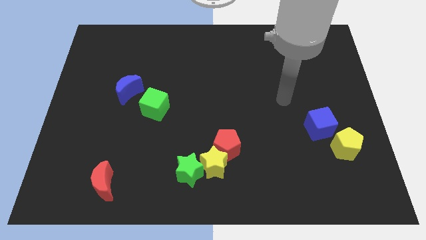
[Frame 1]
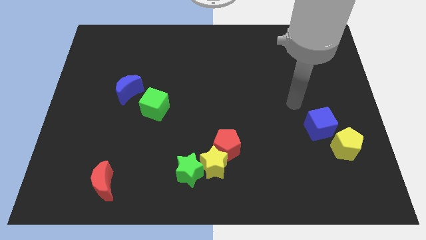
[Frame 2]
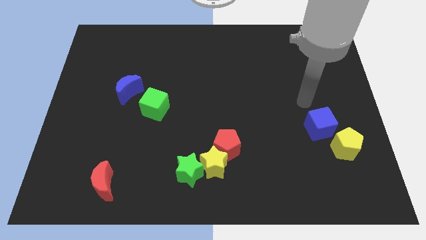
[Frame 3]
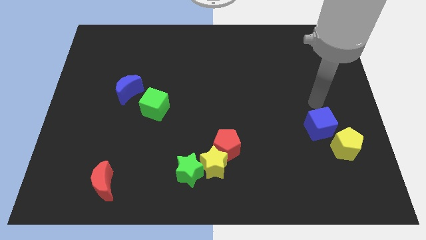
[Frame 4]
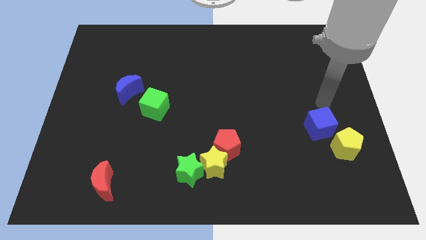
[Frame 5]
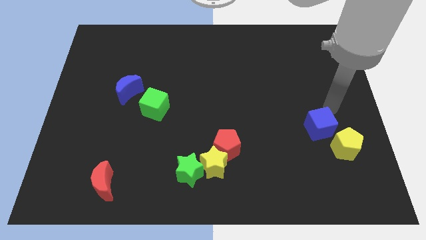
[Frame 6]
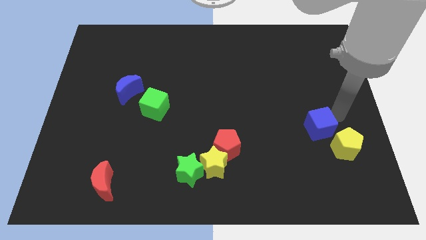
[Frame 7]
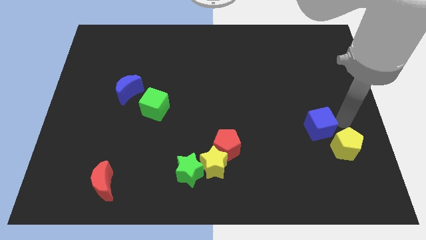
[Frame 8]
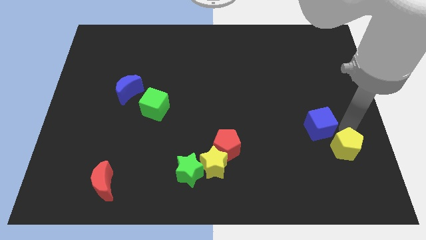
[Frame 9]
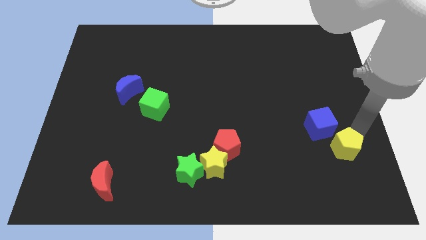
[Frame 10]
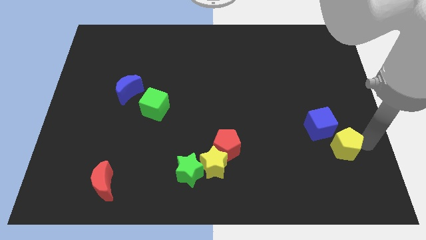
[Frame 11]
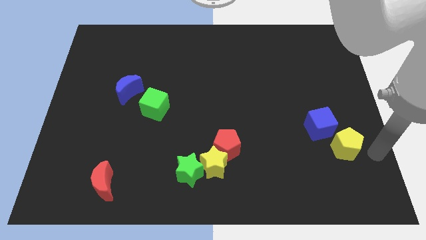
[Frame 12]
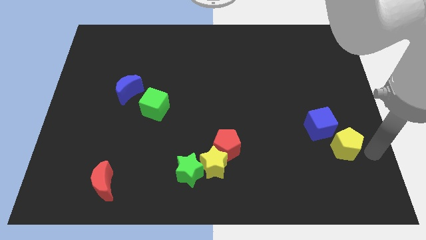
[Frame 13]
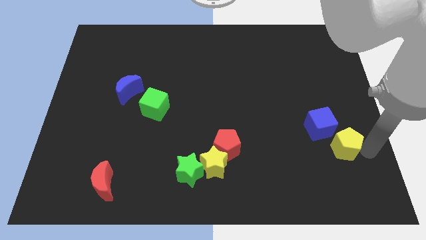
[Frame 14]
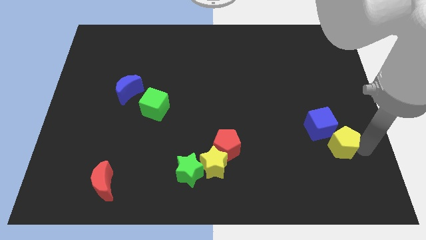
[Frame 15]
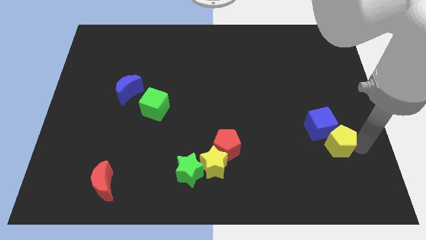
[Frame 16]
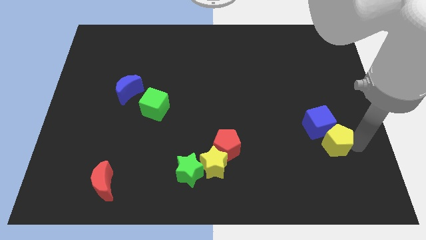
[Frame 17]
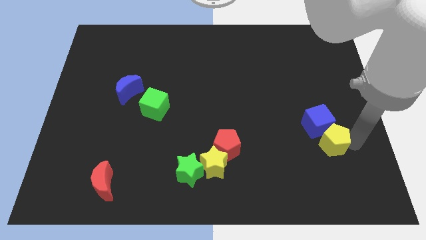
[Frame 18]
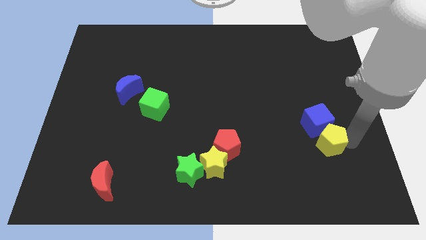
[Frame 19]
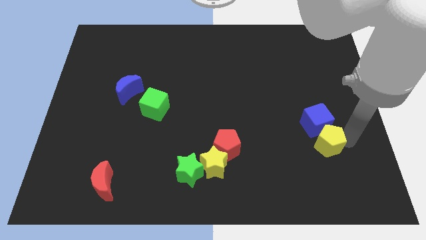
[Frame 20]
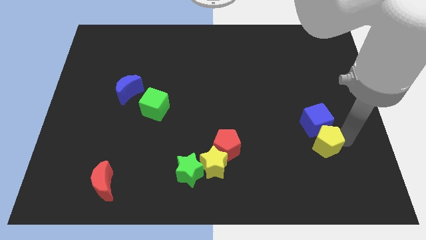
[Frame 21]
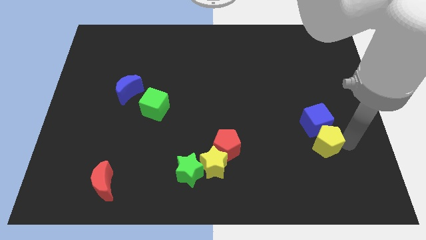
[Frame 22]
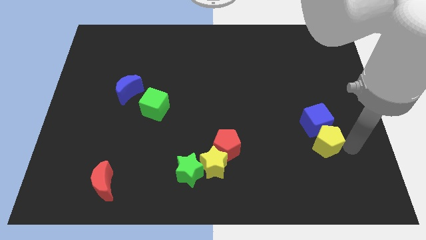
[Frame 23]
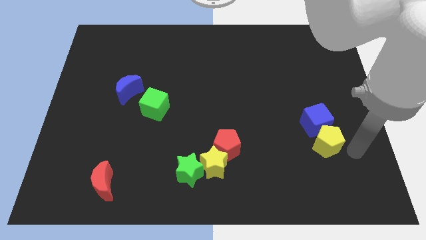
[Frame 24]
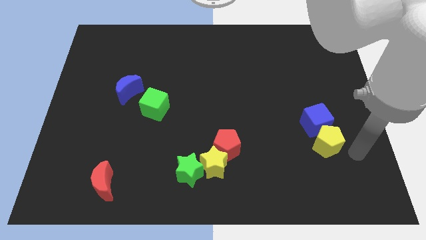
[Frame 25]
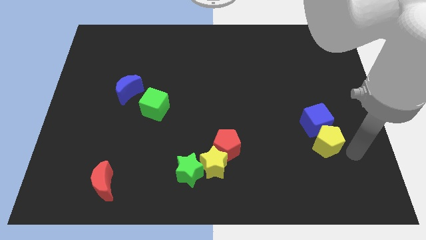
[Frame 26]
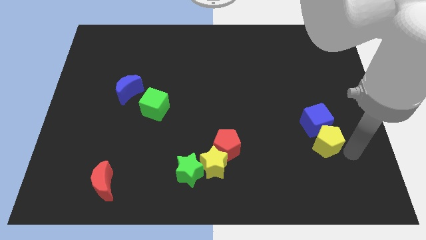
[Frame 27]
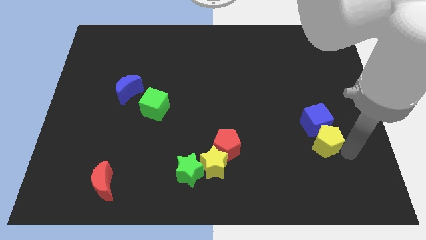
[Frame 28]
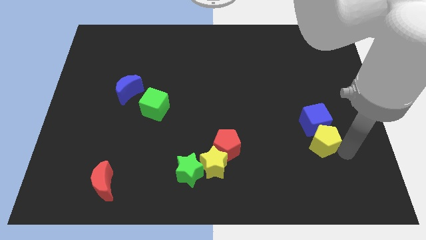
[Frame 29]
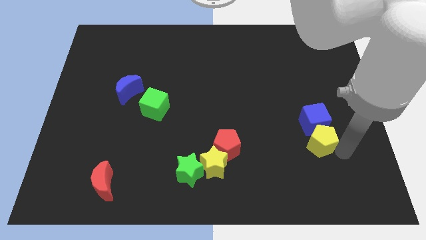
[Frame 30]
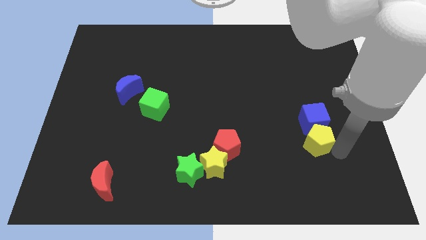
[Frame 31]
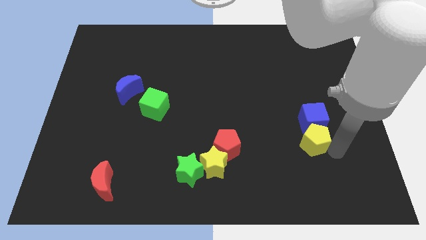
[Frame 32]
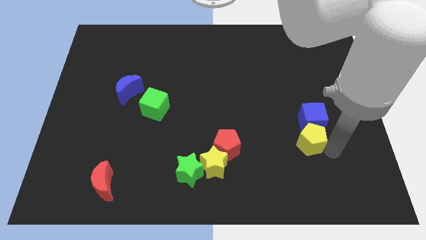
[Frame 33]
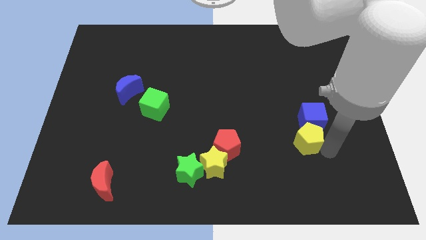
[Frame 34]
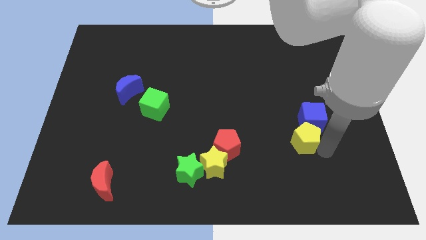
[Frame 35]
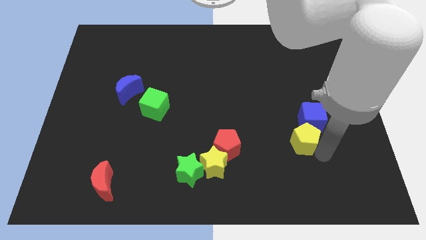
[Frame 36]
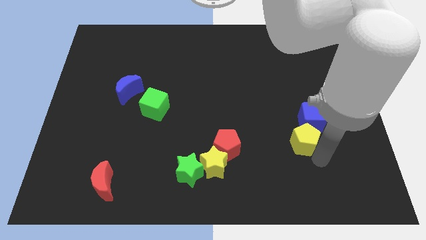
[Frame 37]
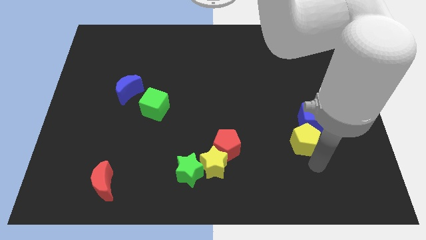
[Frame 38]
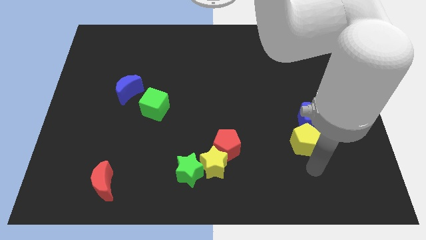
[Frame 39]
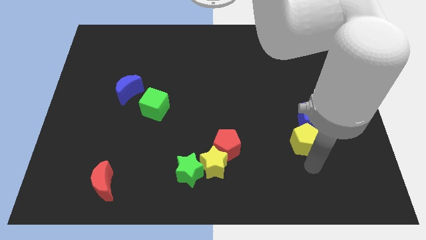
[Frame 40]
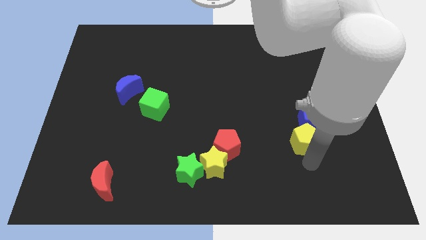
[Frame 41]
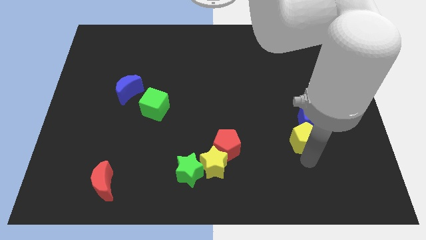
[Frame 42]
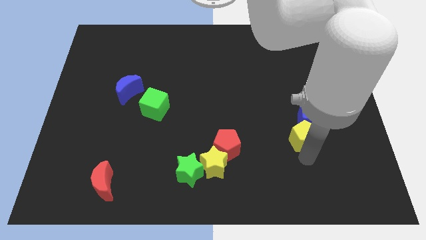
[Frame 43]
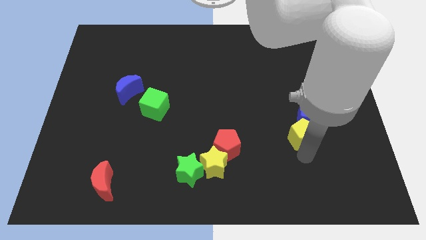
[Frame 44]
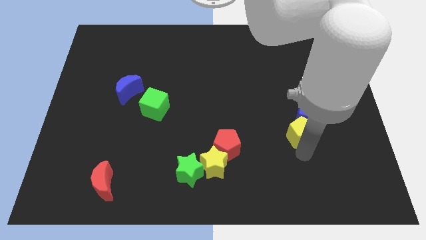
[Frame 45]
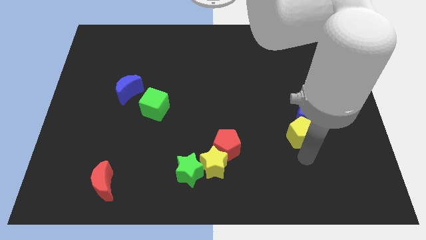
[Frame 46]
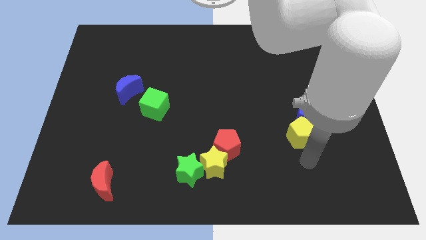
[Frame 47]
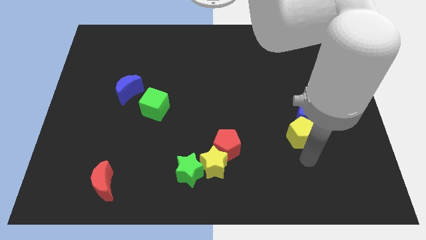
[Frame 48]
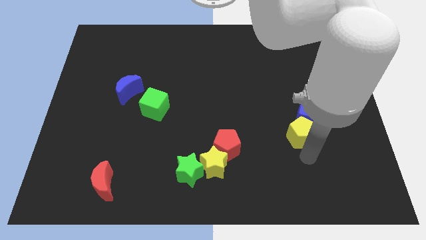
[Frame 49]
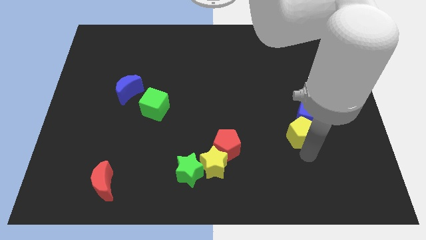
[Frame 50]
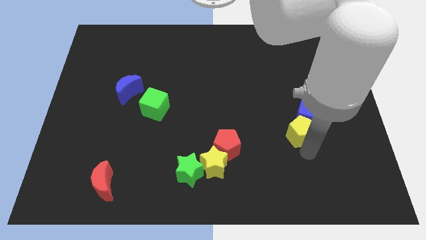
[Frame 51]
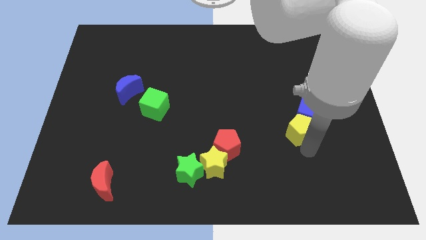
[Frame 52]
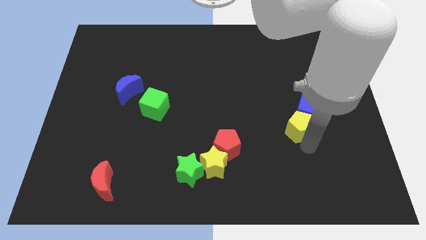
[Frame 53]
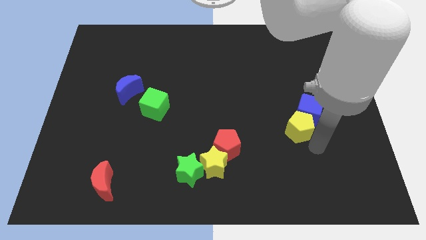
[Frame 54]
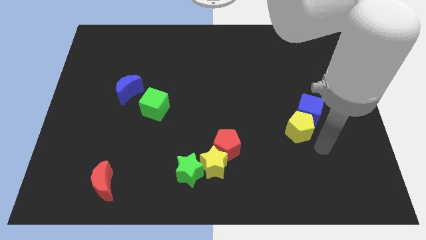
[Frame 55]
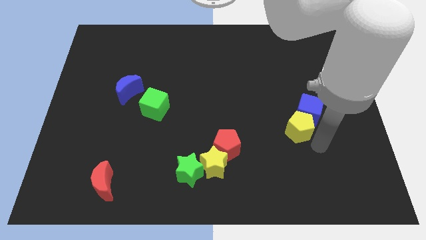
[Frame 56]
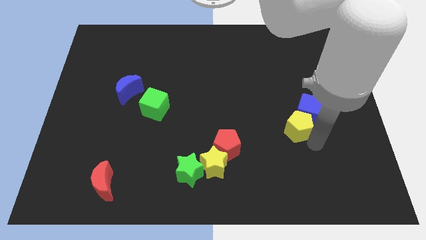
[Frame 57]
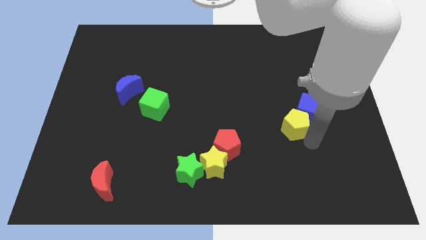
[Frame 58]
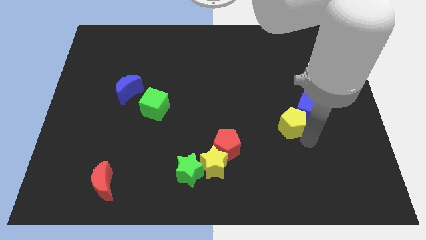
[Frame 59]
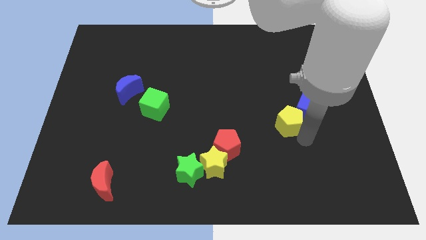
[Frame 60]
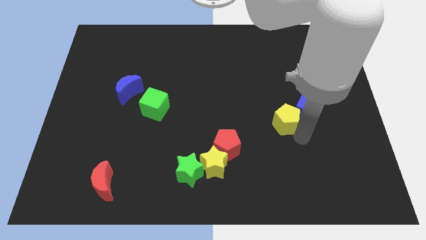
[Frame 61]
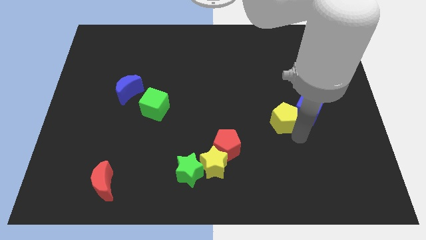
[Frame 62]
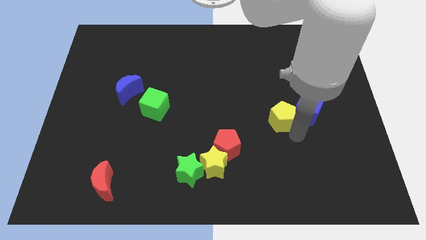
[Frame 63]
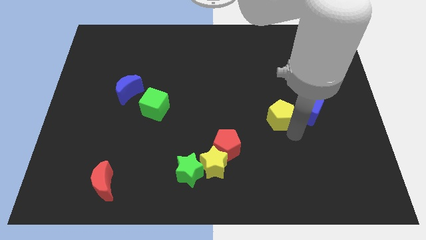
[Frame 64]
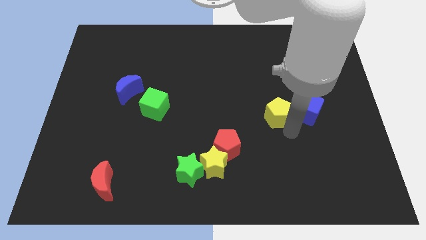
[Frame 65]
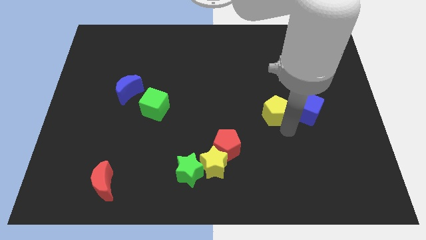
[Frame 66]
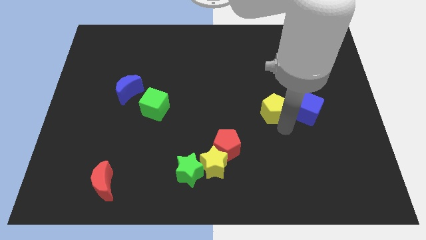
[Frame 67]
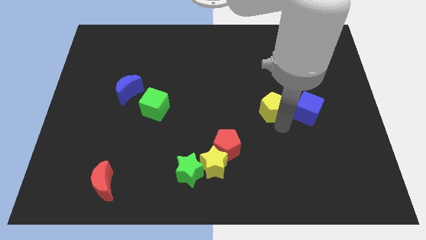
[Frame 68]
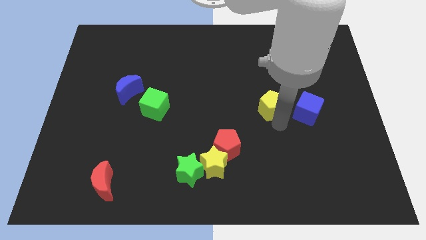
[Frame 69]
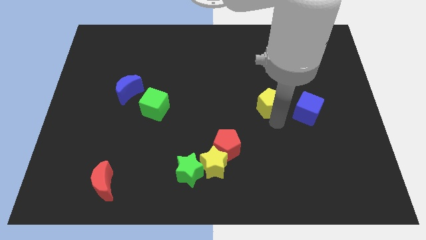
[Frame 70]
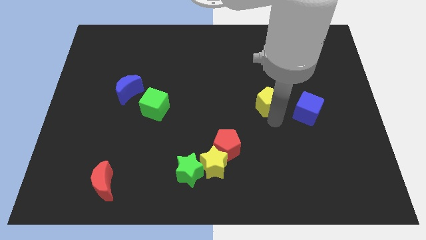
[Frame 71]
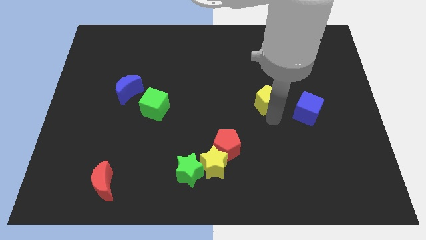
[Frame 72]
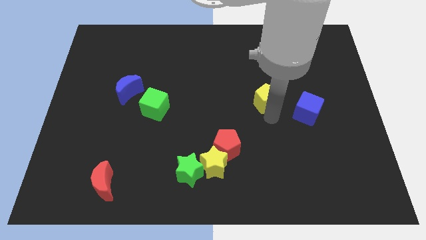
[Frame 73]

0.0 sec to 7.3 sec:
slide the yellow pentagon up and left

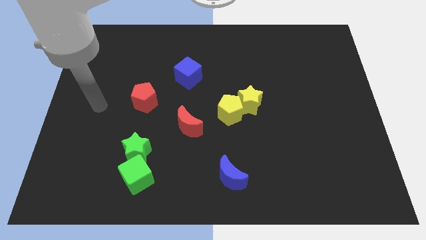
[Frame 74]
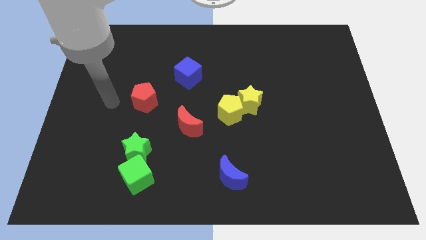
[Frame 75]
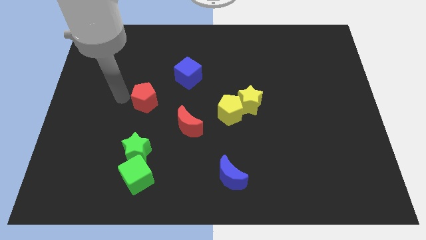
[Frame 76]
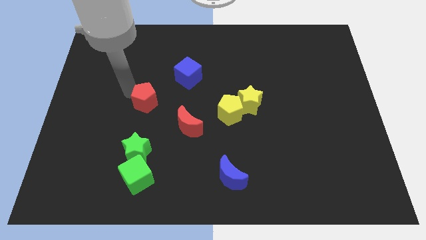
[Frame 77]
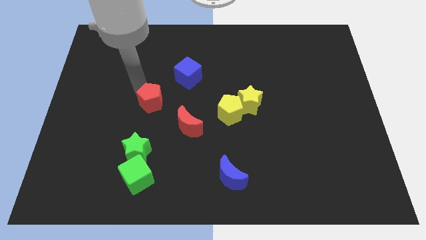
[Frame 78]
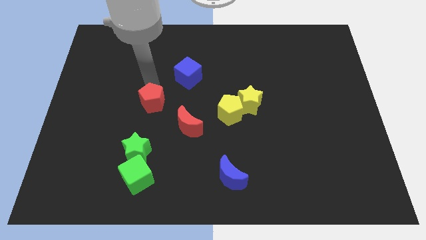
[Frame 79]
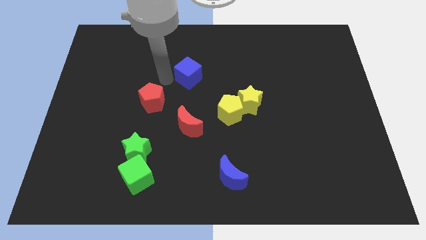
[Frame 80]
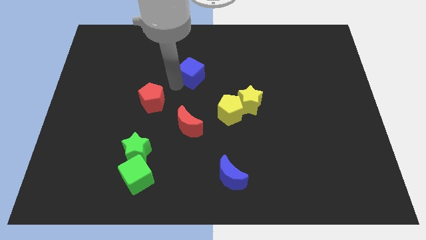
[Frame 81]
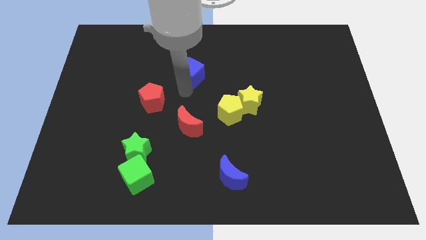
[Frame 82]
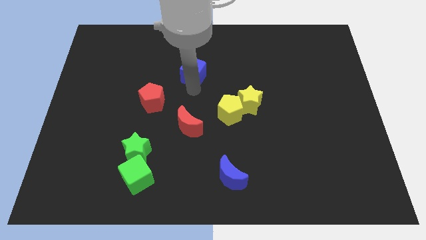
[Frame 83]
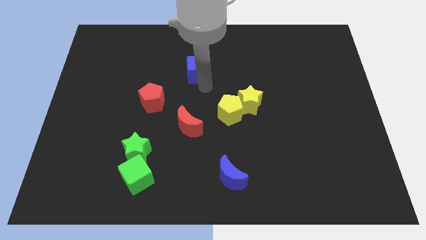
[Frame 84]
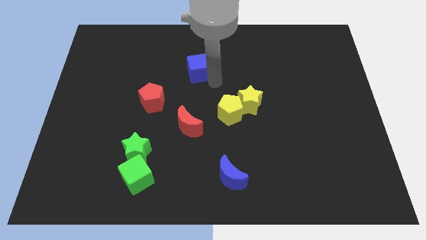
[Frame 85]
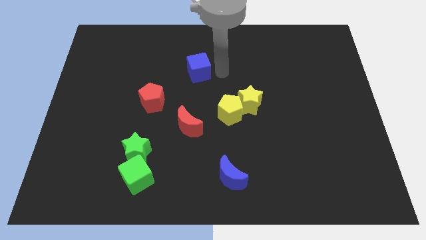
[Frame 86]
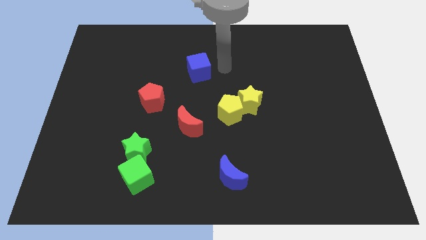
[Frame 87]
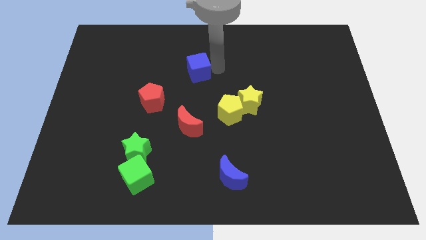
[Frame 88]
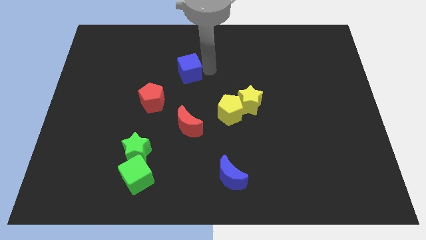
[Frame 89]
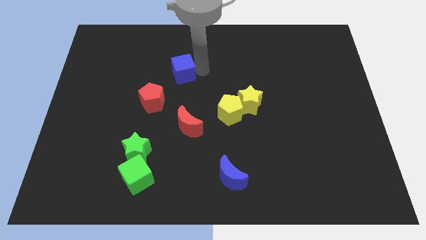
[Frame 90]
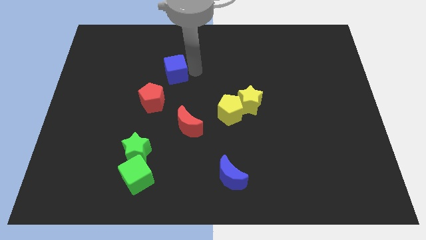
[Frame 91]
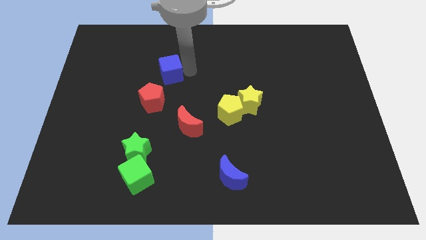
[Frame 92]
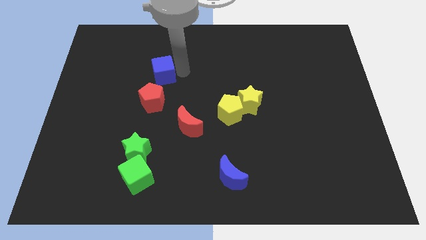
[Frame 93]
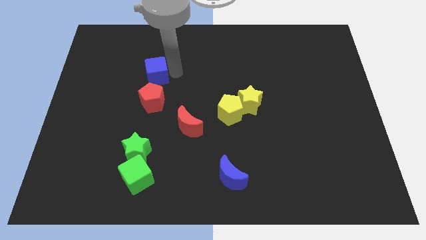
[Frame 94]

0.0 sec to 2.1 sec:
slide the blue cube somewhat left
